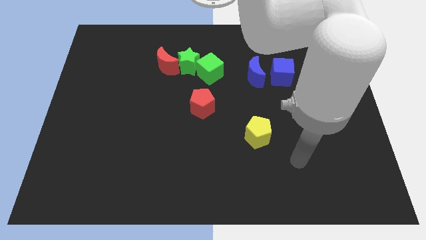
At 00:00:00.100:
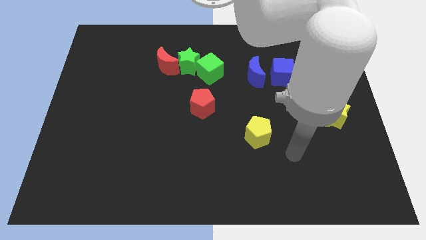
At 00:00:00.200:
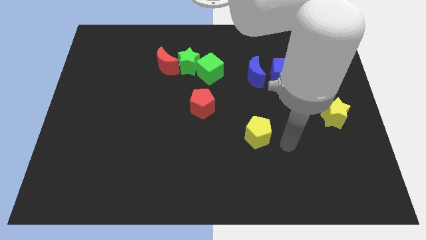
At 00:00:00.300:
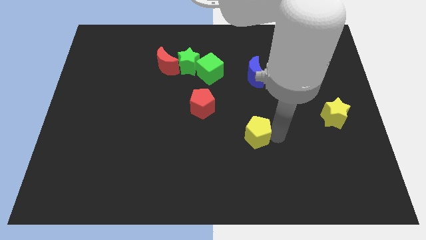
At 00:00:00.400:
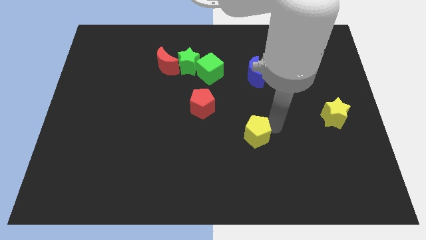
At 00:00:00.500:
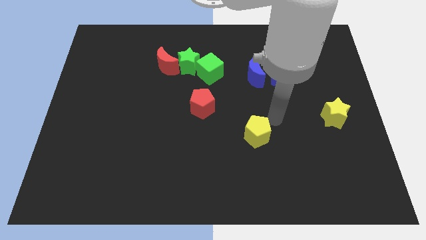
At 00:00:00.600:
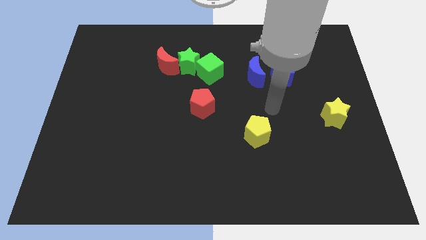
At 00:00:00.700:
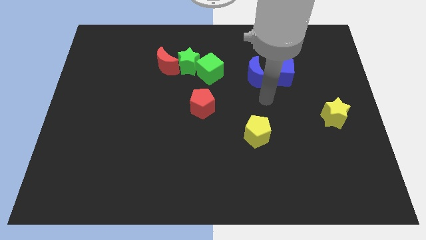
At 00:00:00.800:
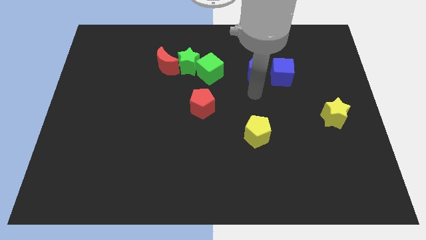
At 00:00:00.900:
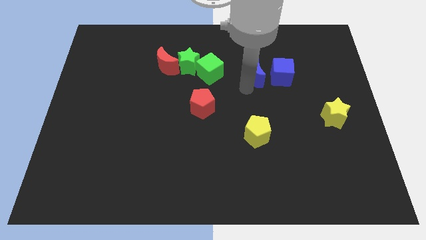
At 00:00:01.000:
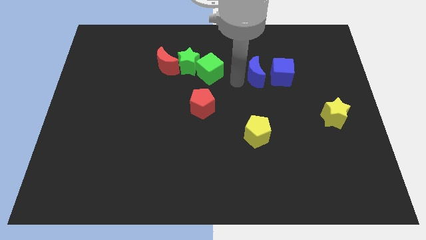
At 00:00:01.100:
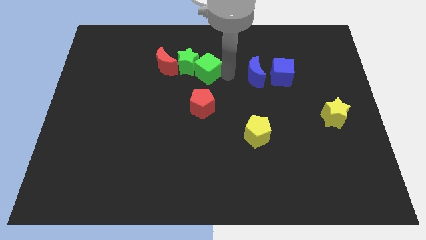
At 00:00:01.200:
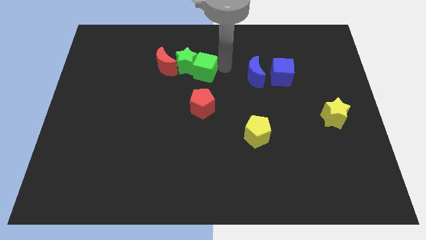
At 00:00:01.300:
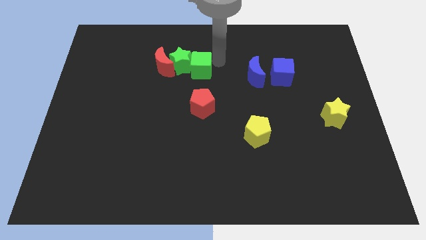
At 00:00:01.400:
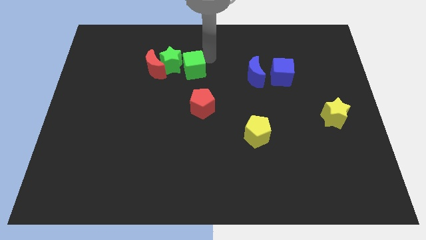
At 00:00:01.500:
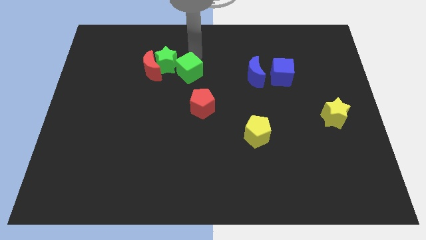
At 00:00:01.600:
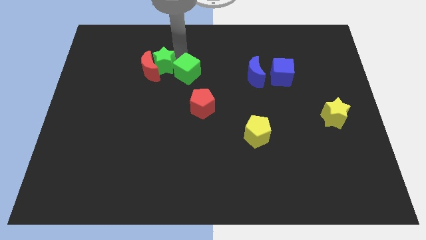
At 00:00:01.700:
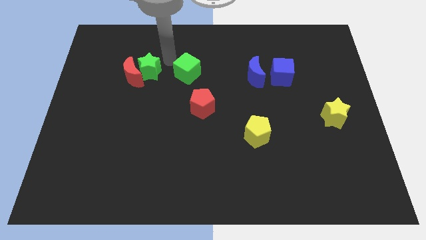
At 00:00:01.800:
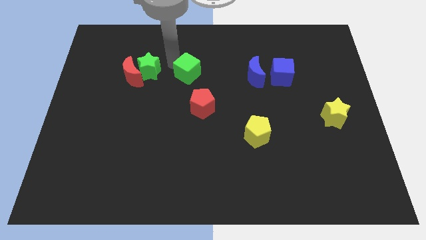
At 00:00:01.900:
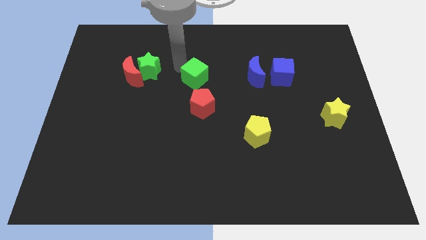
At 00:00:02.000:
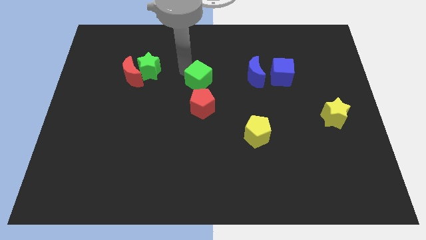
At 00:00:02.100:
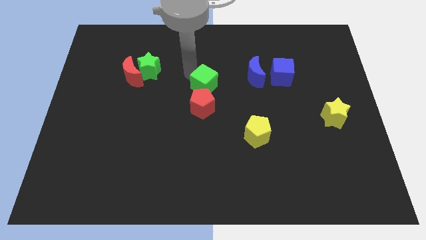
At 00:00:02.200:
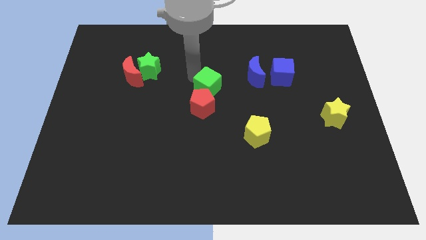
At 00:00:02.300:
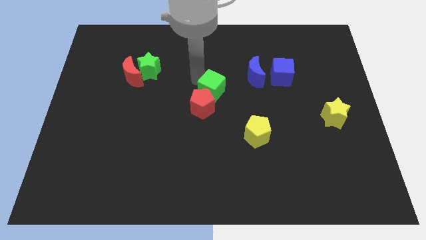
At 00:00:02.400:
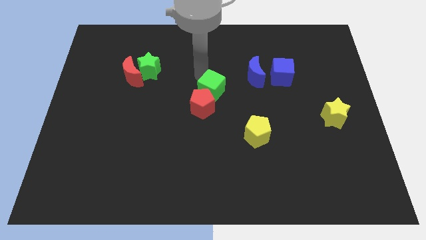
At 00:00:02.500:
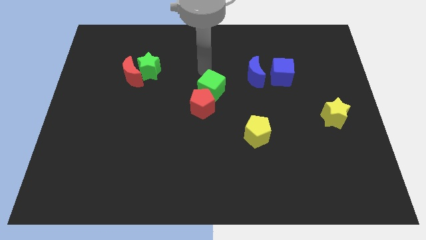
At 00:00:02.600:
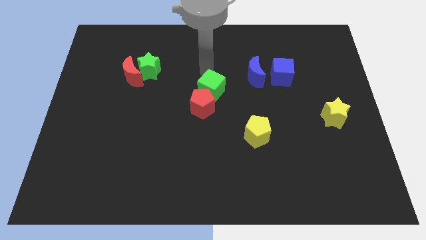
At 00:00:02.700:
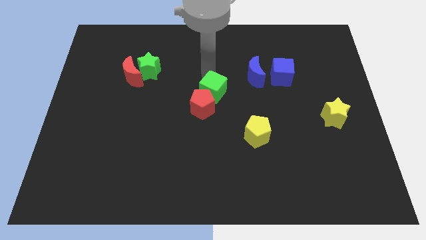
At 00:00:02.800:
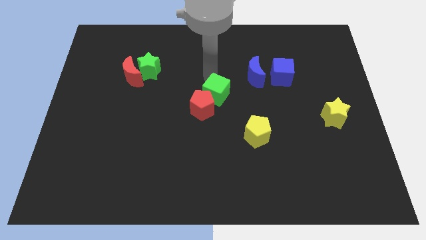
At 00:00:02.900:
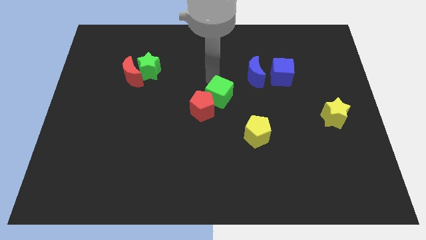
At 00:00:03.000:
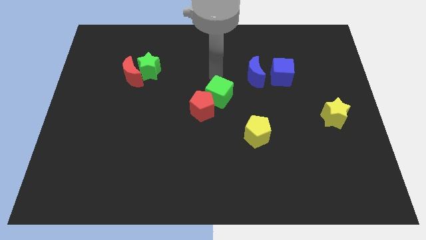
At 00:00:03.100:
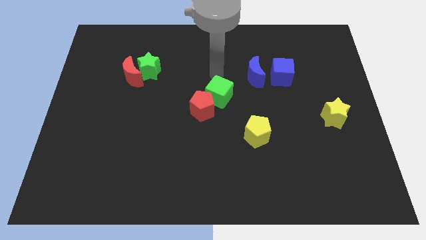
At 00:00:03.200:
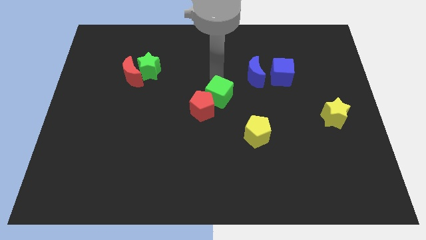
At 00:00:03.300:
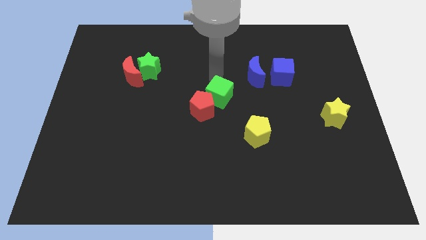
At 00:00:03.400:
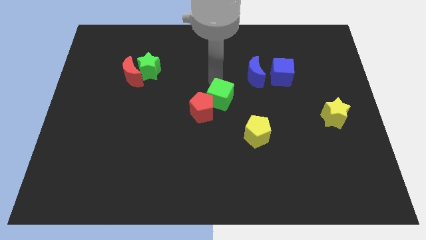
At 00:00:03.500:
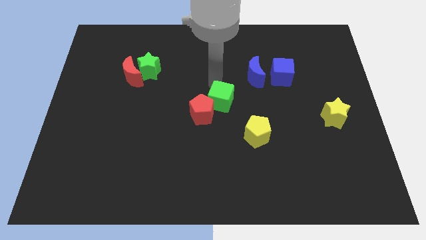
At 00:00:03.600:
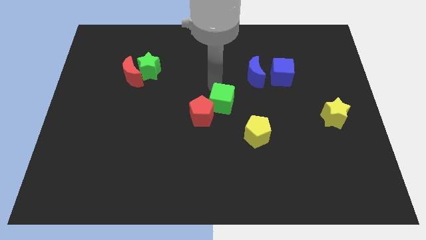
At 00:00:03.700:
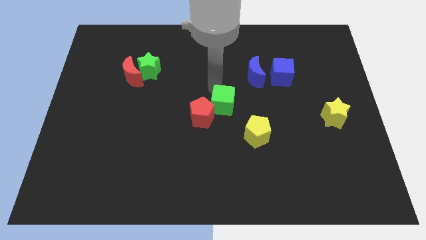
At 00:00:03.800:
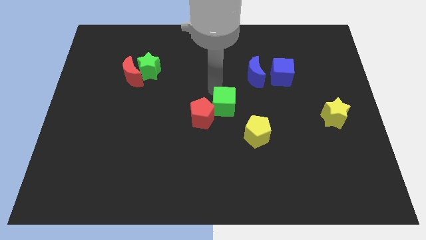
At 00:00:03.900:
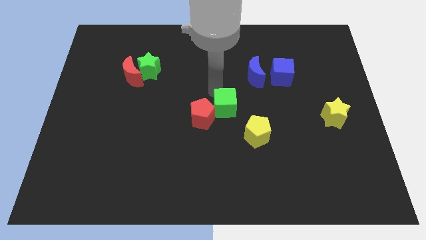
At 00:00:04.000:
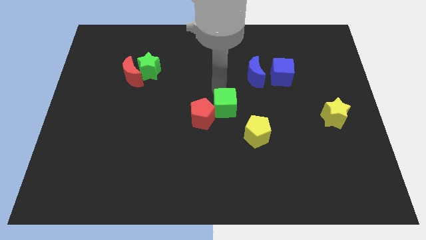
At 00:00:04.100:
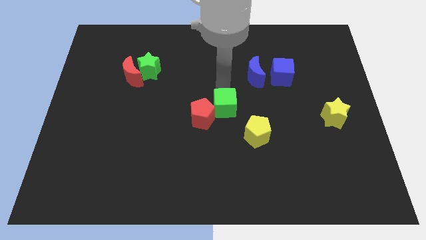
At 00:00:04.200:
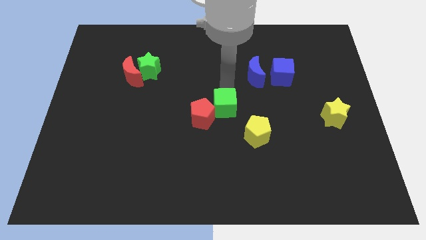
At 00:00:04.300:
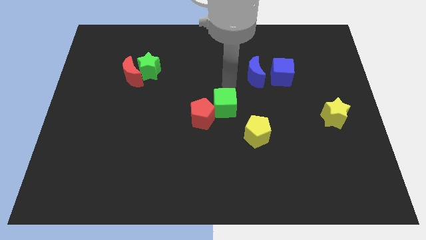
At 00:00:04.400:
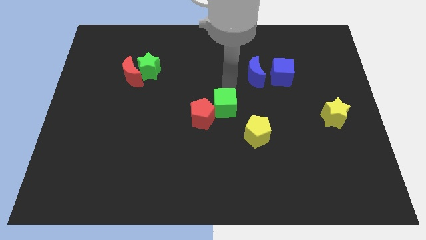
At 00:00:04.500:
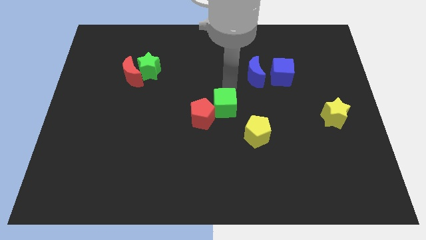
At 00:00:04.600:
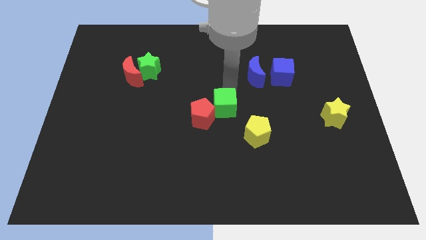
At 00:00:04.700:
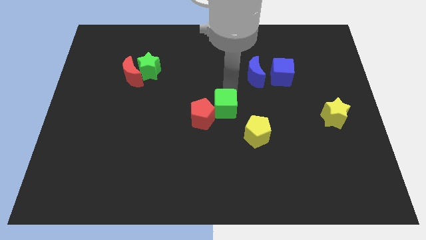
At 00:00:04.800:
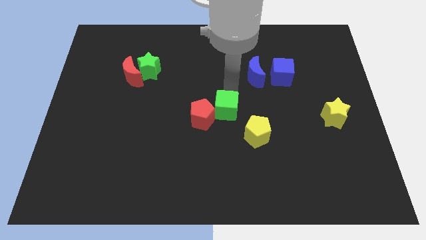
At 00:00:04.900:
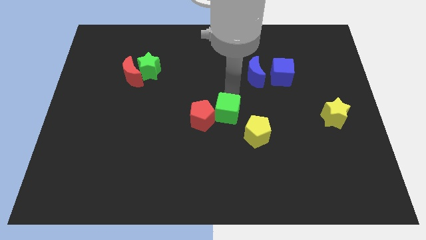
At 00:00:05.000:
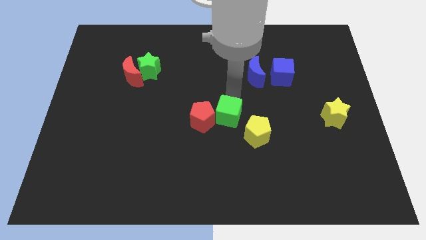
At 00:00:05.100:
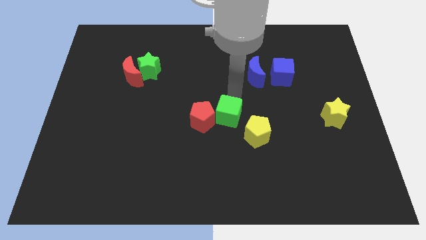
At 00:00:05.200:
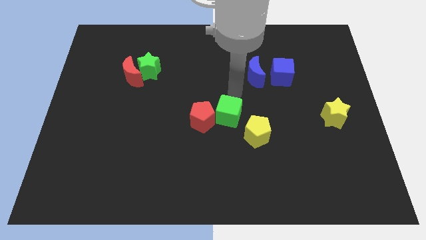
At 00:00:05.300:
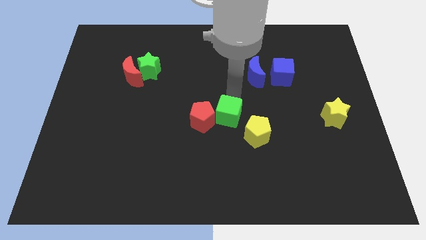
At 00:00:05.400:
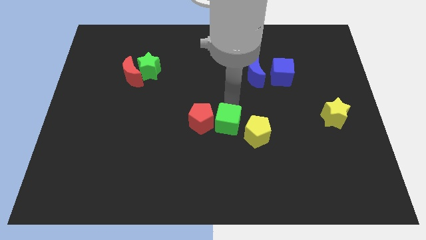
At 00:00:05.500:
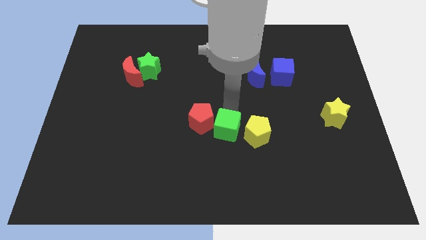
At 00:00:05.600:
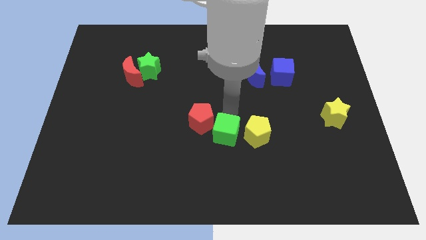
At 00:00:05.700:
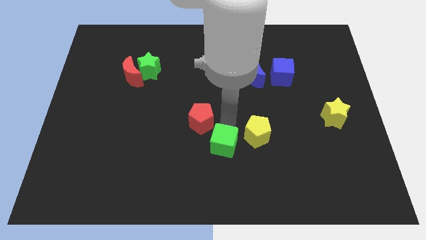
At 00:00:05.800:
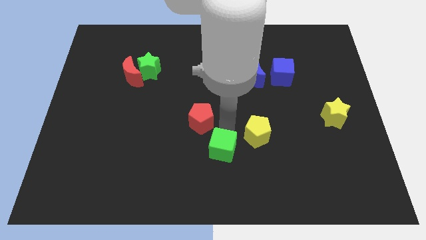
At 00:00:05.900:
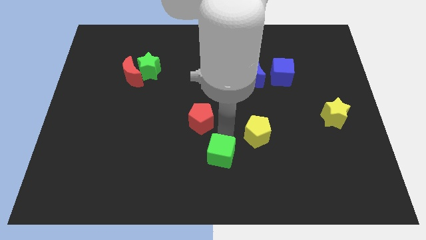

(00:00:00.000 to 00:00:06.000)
slide the green cube to the bottom side
